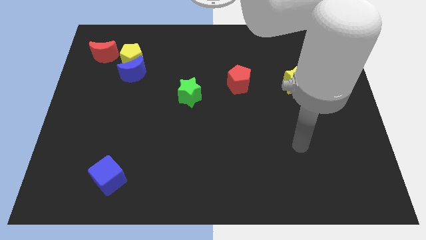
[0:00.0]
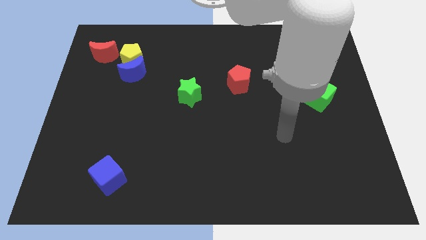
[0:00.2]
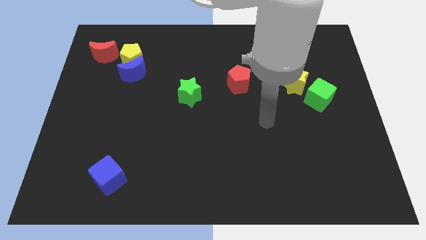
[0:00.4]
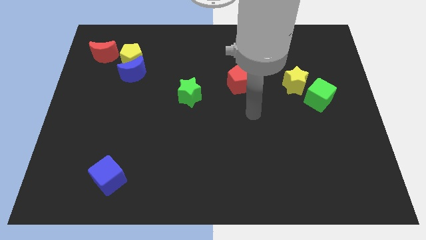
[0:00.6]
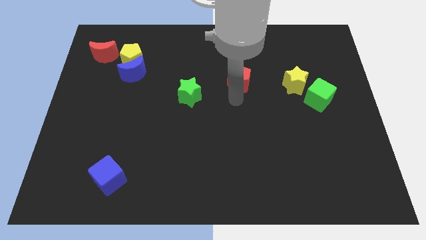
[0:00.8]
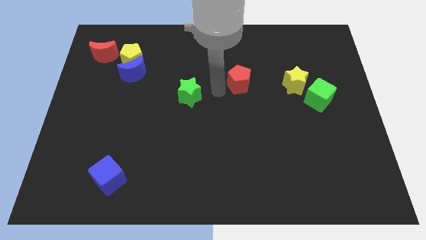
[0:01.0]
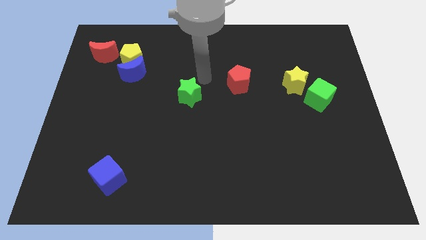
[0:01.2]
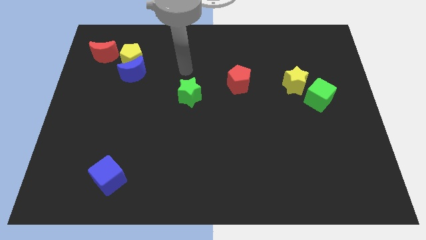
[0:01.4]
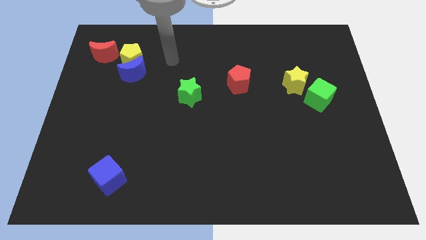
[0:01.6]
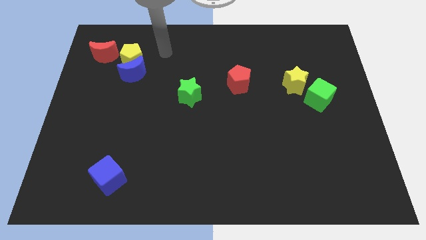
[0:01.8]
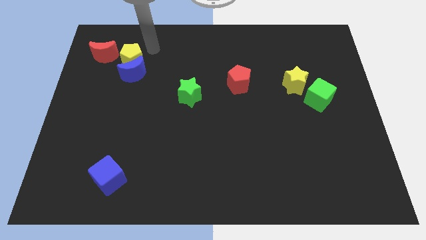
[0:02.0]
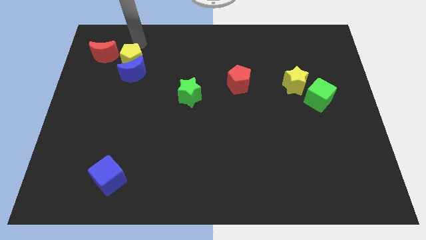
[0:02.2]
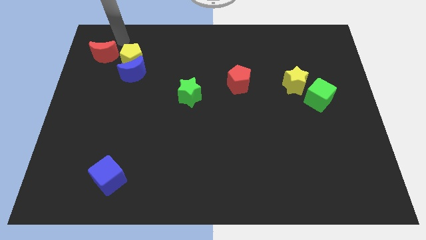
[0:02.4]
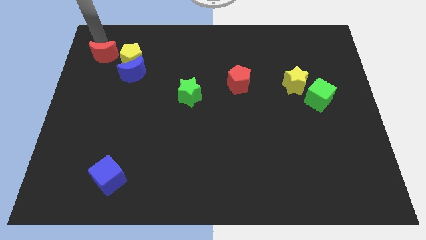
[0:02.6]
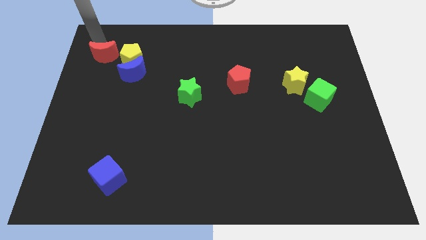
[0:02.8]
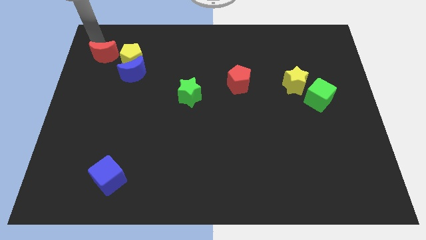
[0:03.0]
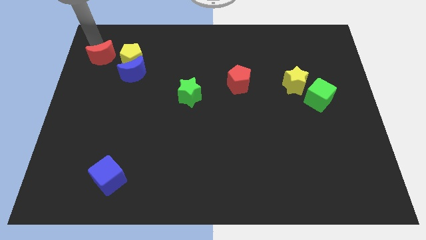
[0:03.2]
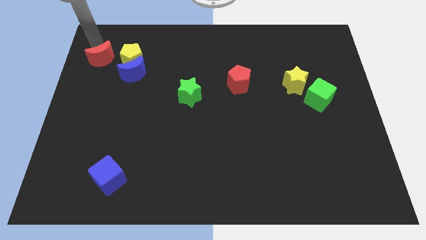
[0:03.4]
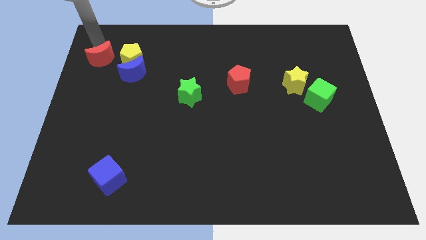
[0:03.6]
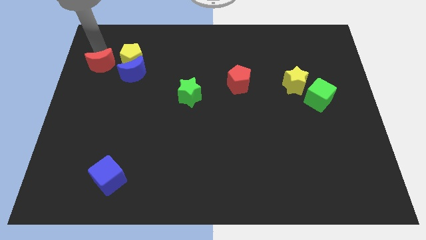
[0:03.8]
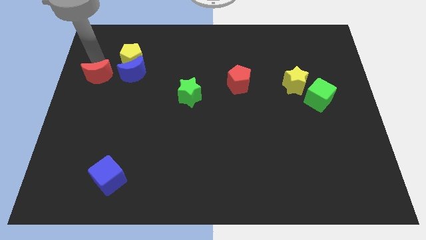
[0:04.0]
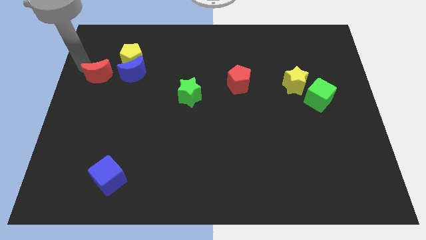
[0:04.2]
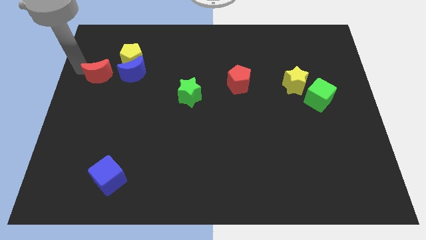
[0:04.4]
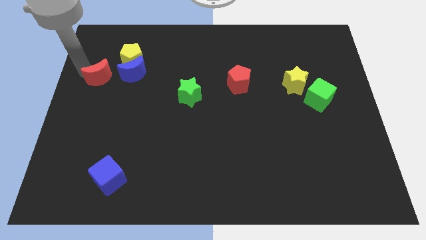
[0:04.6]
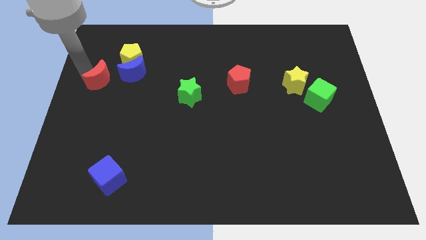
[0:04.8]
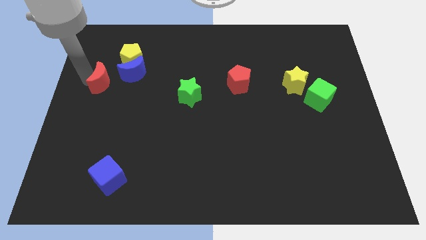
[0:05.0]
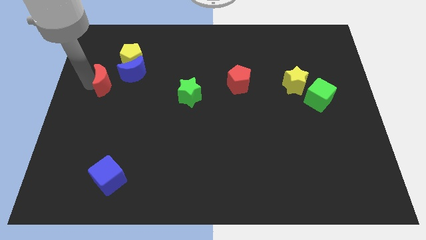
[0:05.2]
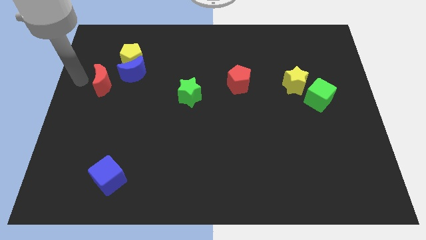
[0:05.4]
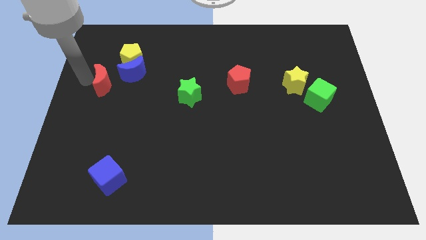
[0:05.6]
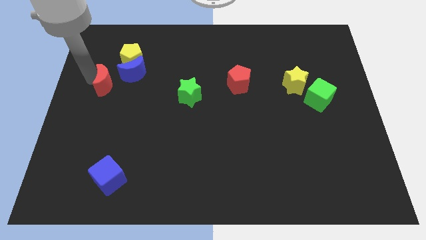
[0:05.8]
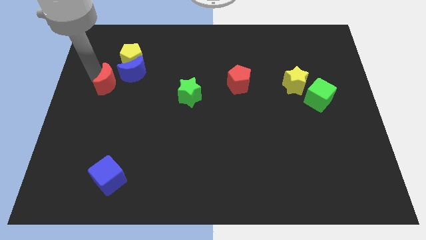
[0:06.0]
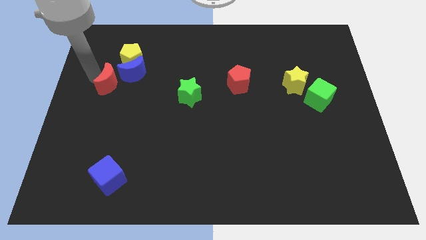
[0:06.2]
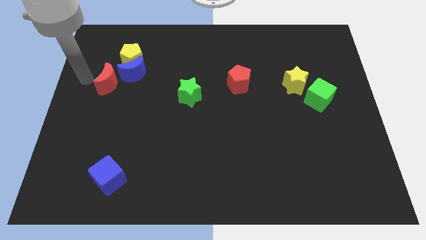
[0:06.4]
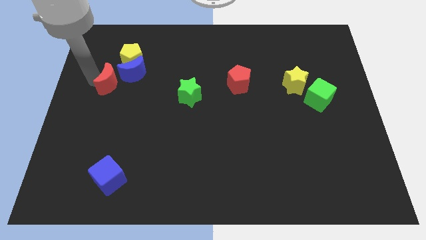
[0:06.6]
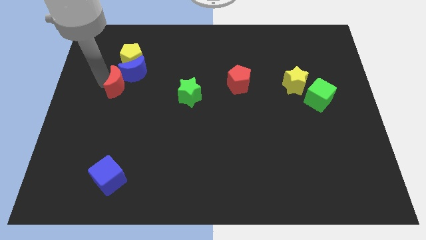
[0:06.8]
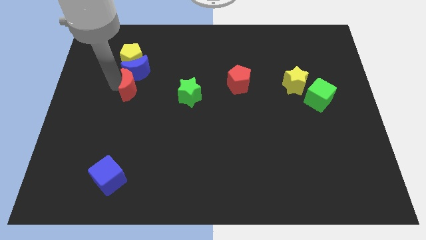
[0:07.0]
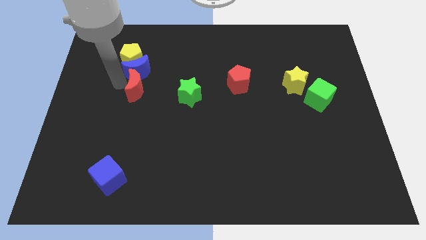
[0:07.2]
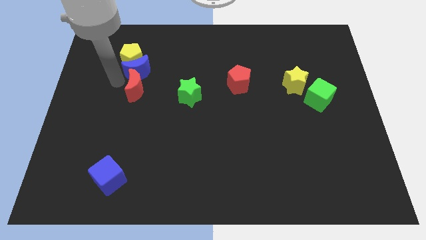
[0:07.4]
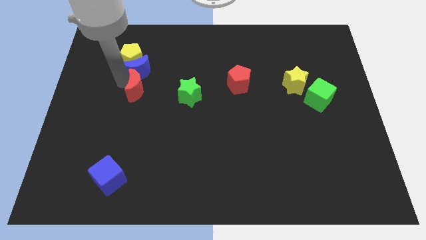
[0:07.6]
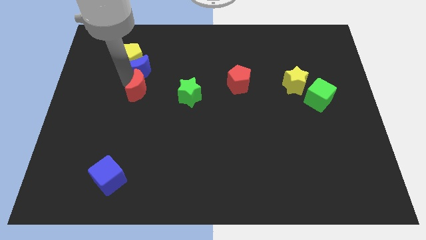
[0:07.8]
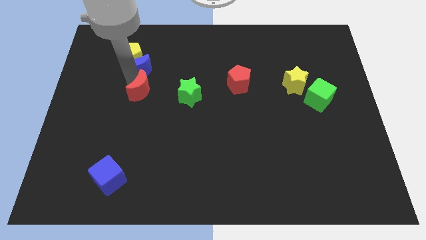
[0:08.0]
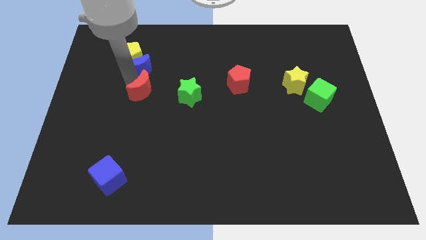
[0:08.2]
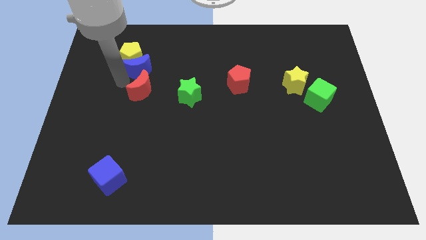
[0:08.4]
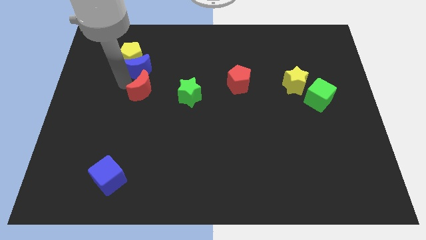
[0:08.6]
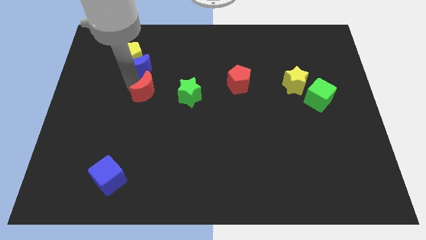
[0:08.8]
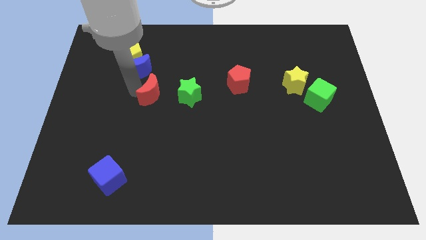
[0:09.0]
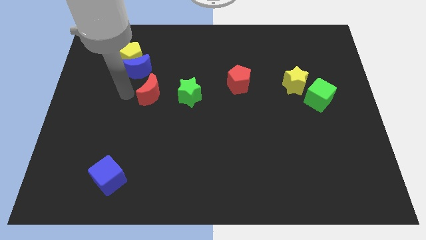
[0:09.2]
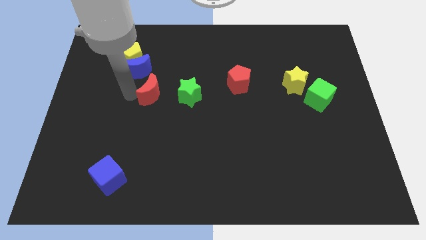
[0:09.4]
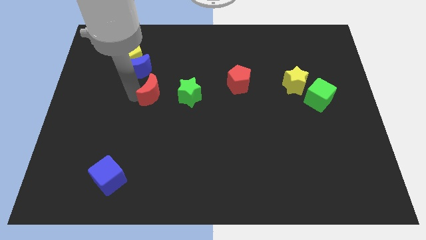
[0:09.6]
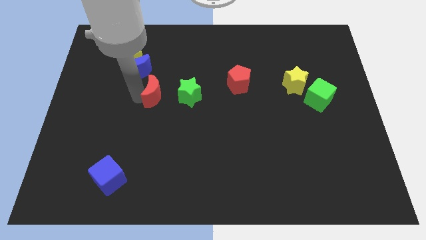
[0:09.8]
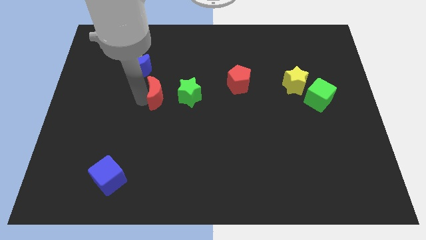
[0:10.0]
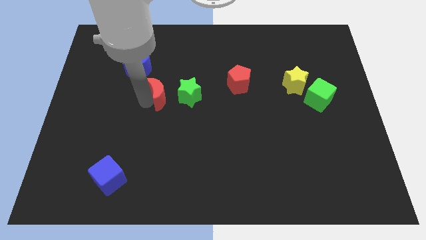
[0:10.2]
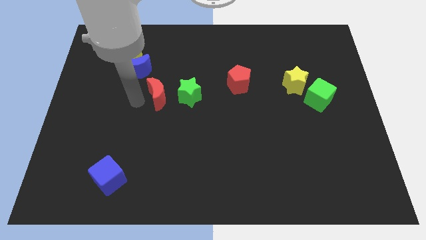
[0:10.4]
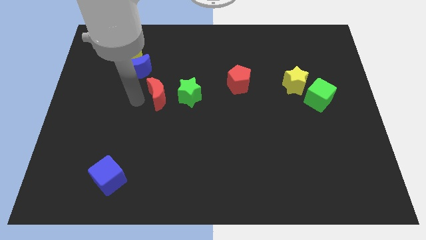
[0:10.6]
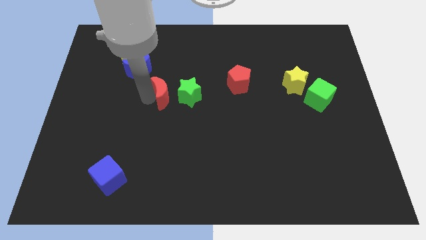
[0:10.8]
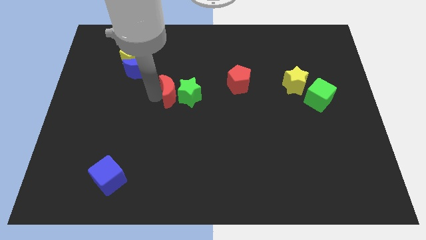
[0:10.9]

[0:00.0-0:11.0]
put the red moon to the green star
